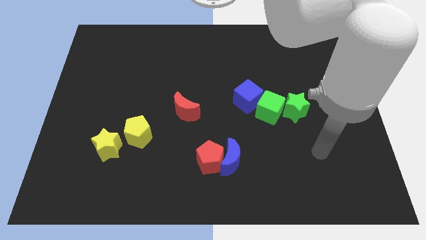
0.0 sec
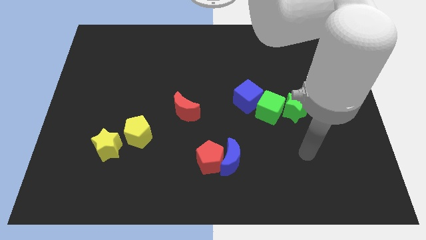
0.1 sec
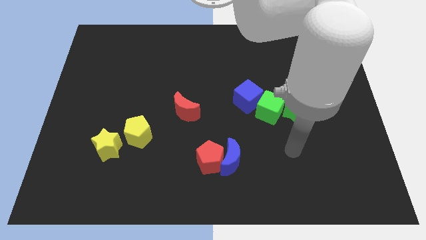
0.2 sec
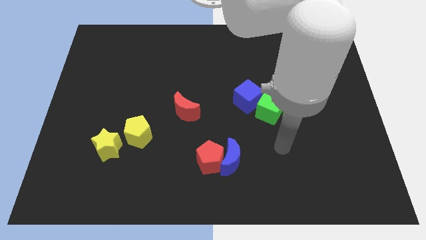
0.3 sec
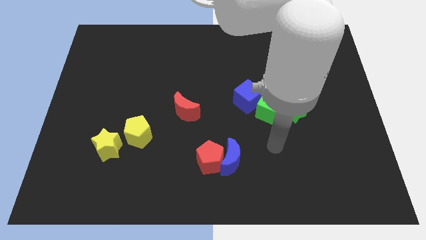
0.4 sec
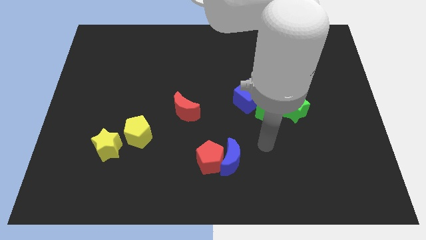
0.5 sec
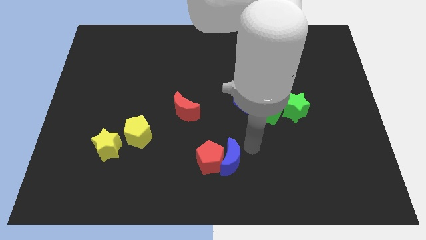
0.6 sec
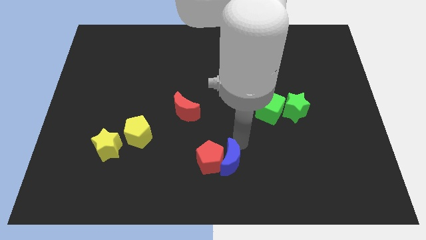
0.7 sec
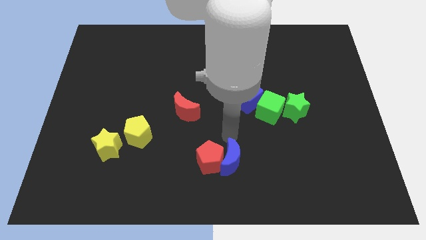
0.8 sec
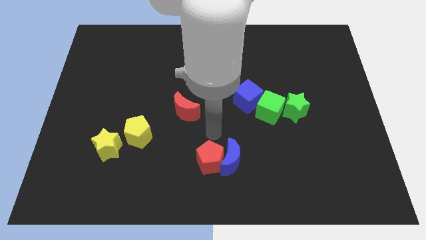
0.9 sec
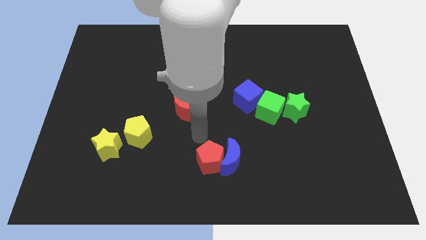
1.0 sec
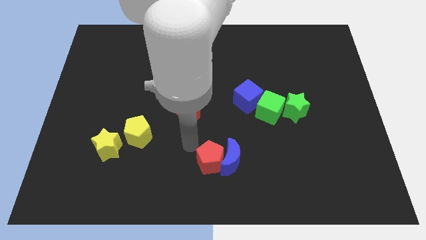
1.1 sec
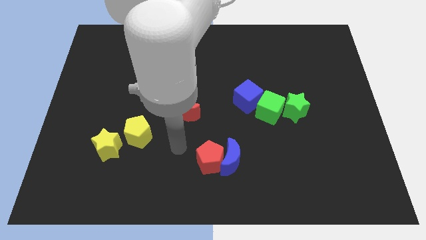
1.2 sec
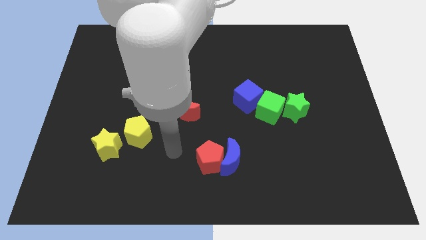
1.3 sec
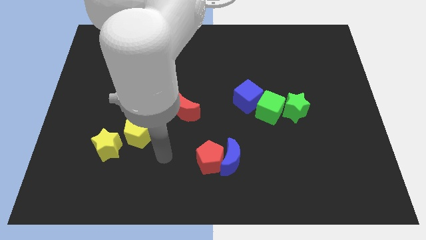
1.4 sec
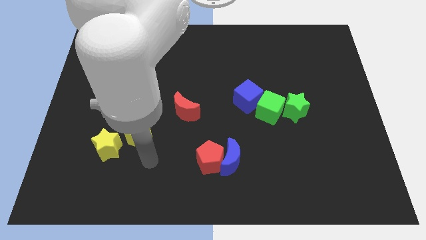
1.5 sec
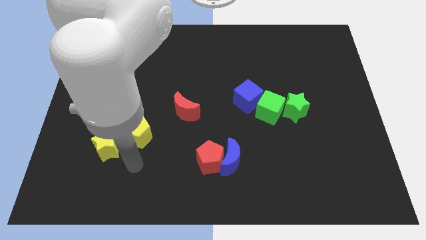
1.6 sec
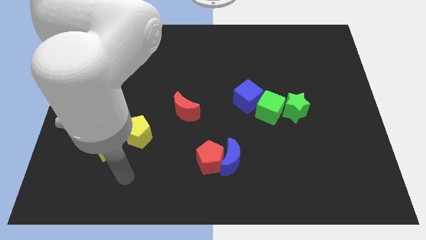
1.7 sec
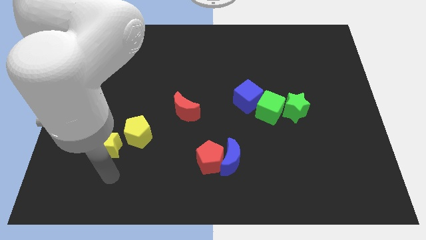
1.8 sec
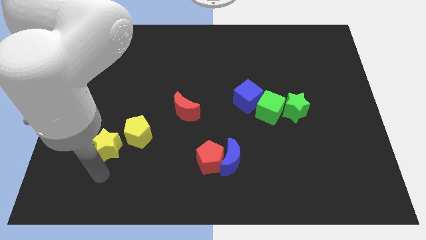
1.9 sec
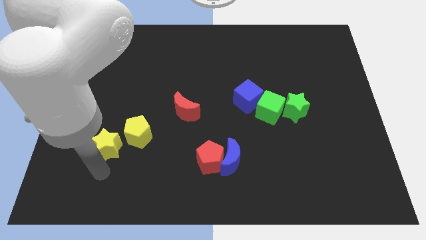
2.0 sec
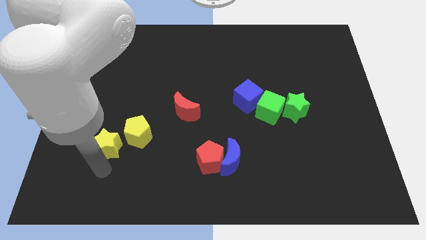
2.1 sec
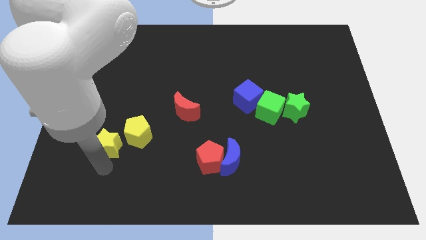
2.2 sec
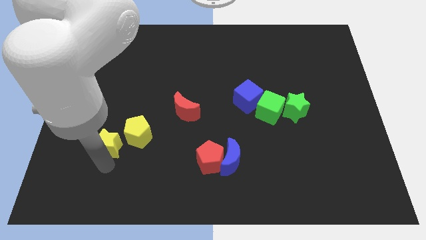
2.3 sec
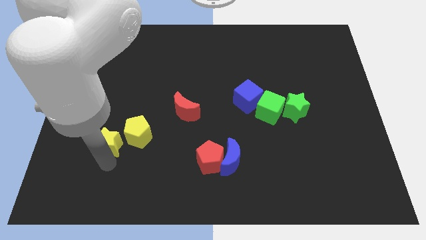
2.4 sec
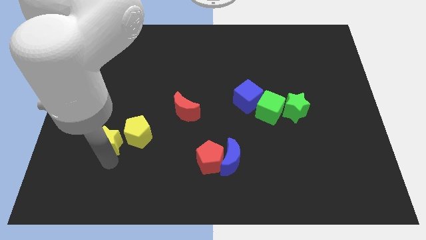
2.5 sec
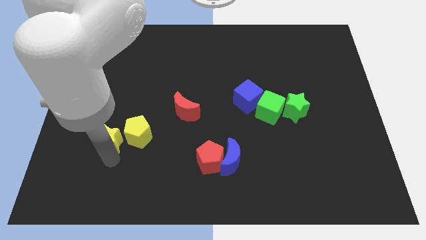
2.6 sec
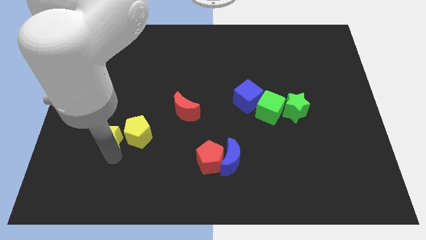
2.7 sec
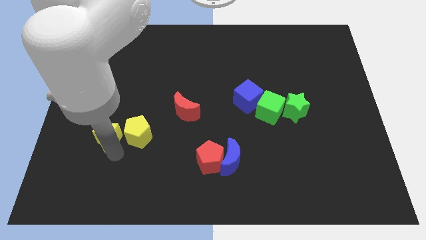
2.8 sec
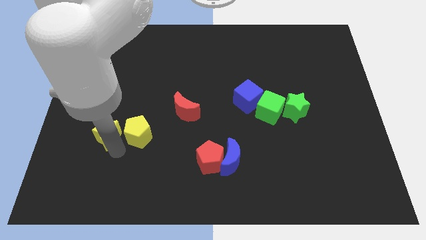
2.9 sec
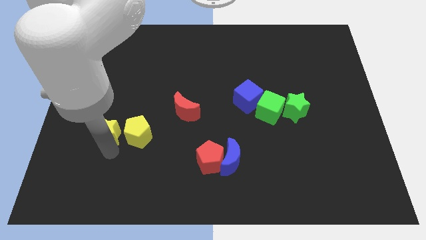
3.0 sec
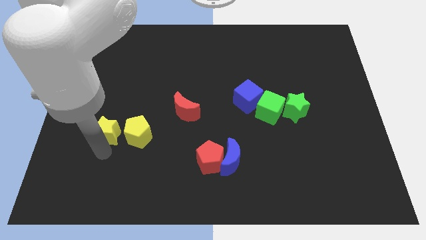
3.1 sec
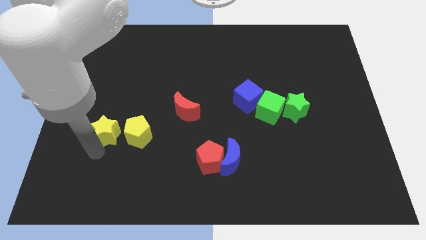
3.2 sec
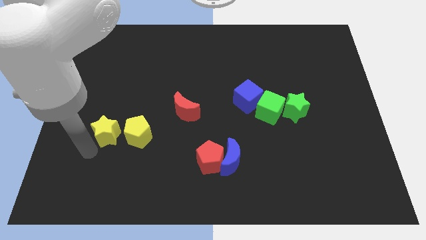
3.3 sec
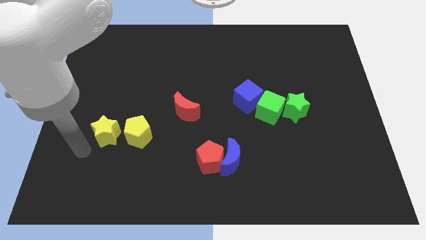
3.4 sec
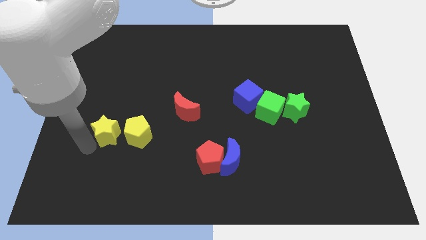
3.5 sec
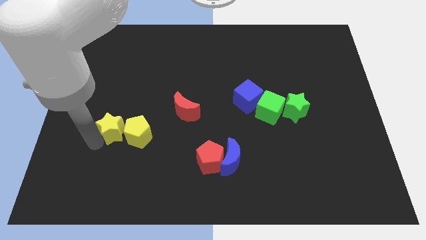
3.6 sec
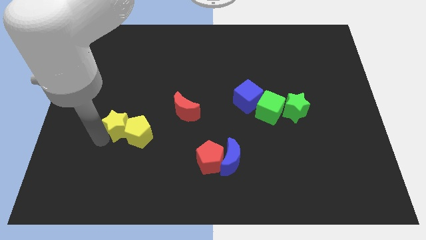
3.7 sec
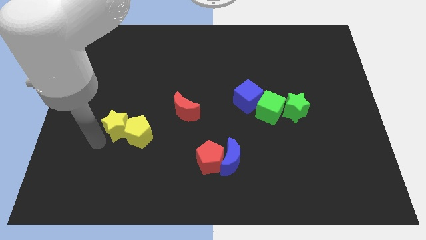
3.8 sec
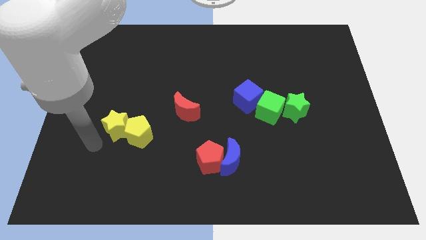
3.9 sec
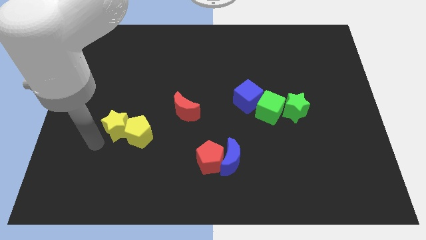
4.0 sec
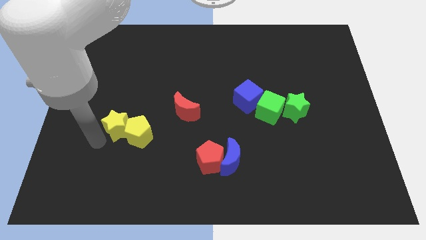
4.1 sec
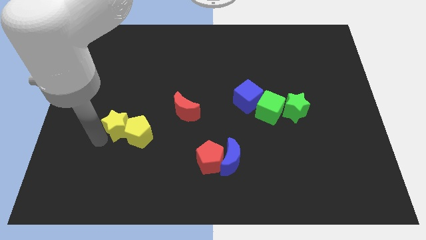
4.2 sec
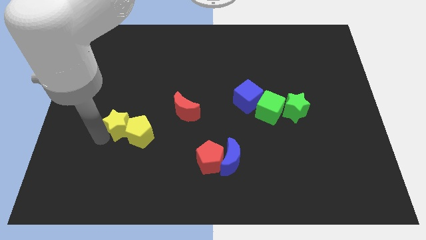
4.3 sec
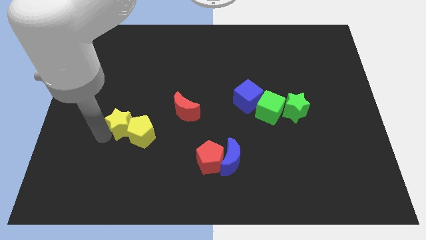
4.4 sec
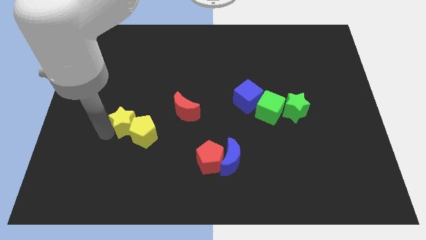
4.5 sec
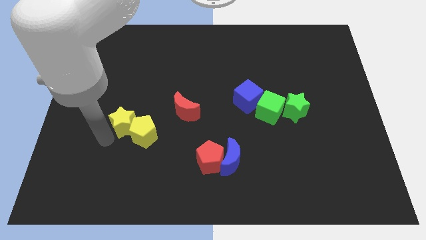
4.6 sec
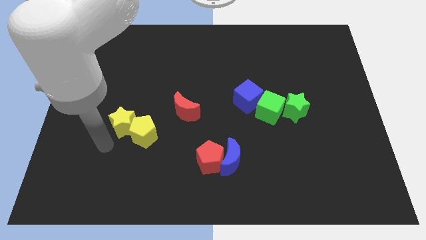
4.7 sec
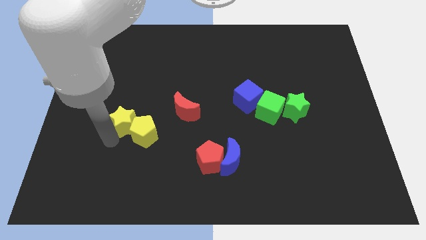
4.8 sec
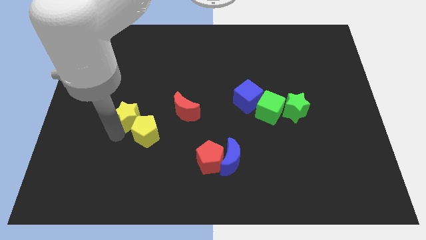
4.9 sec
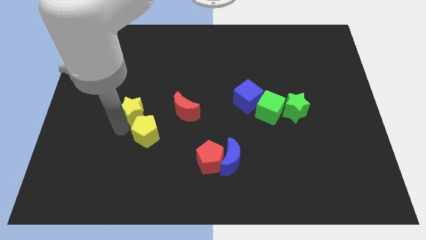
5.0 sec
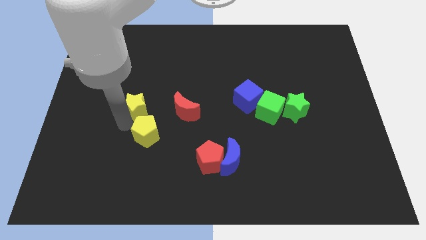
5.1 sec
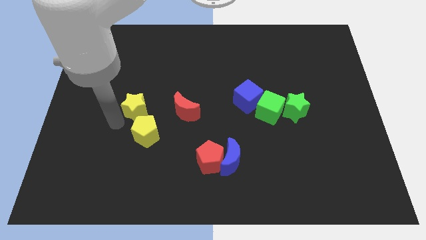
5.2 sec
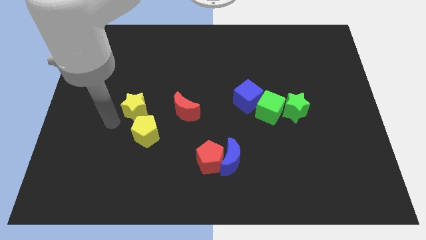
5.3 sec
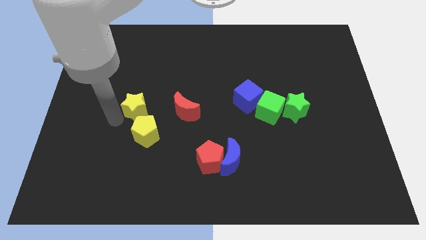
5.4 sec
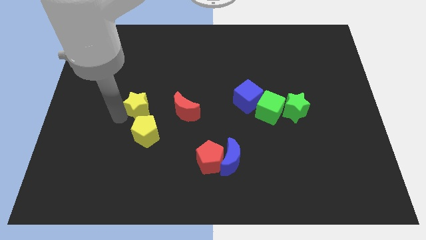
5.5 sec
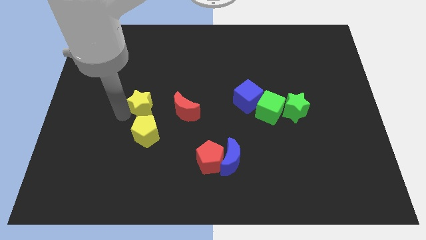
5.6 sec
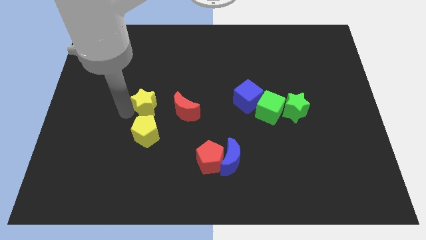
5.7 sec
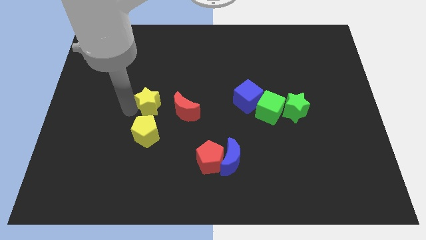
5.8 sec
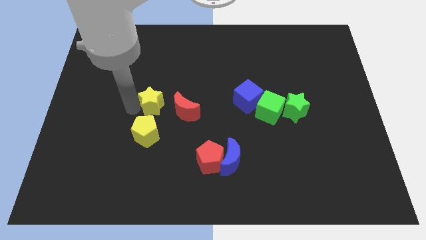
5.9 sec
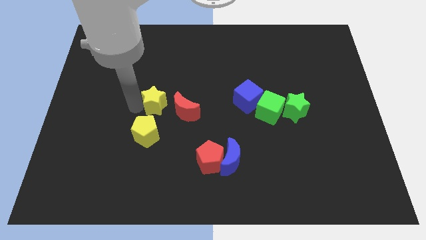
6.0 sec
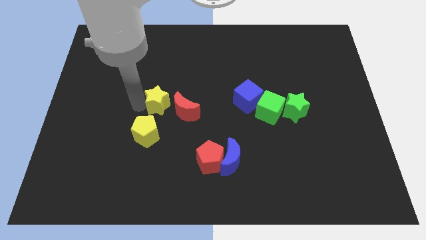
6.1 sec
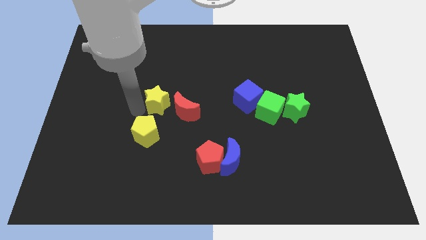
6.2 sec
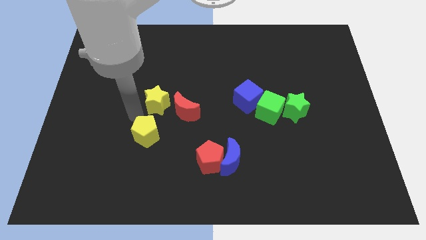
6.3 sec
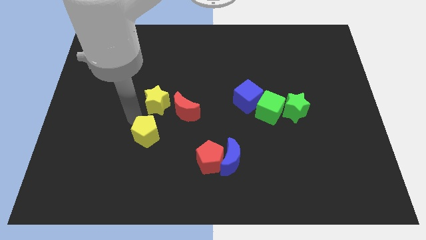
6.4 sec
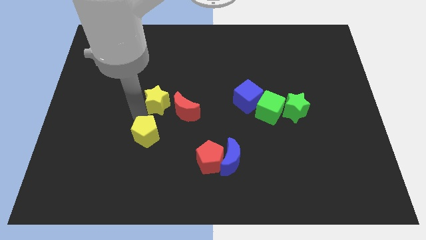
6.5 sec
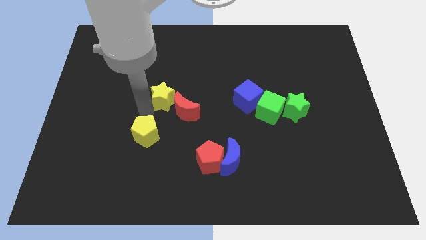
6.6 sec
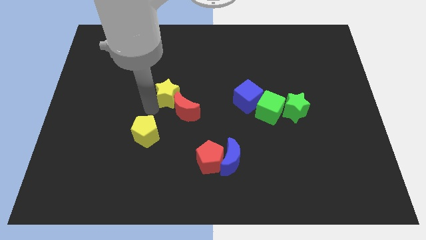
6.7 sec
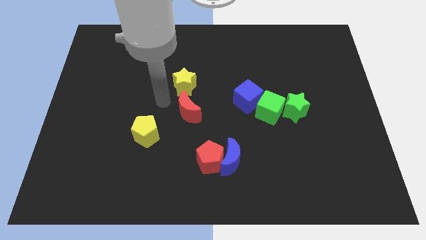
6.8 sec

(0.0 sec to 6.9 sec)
slide the yellow star upwards and then right

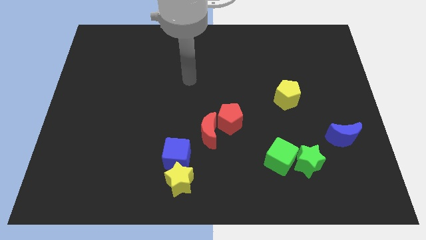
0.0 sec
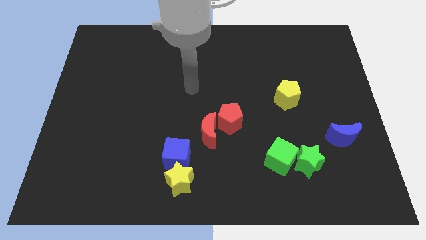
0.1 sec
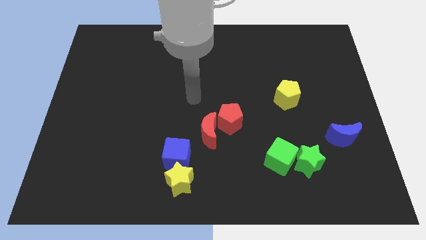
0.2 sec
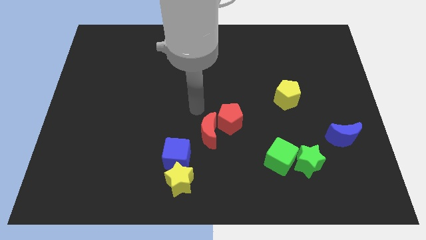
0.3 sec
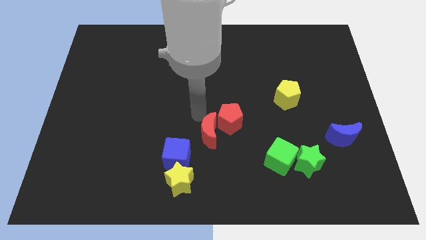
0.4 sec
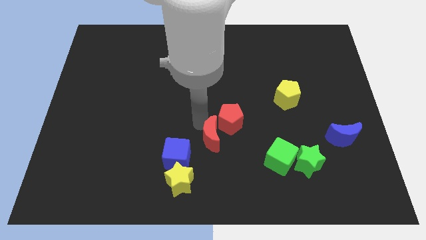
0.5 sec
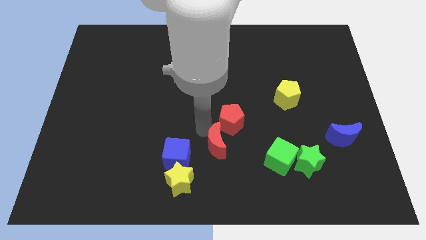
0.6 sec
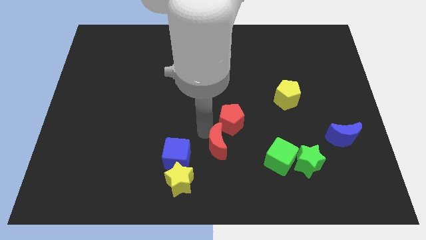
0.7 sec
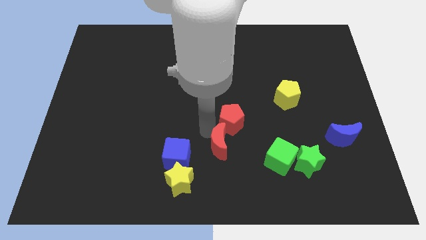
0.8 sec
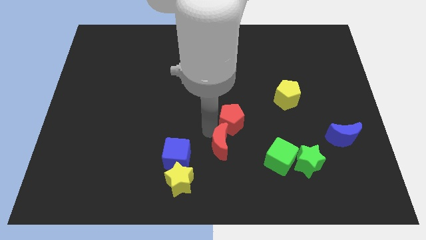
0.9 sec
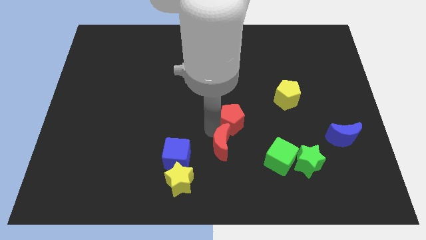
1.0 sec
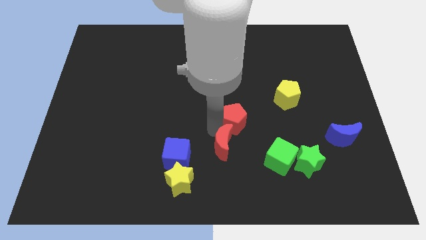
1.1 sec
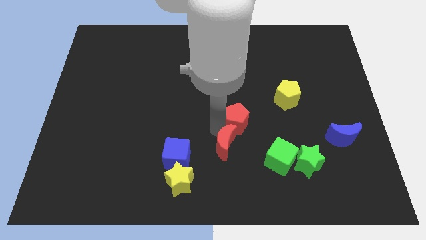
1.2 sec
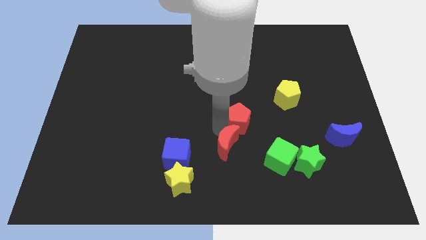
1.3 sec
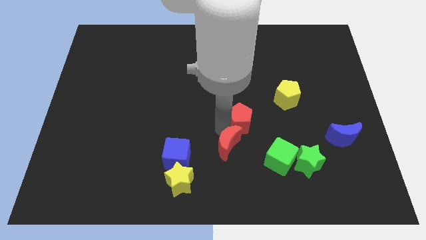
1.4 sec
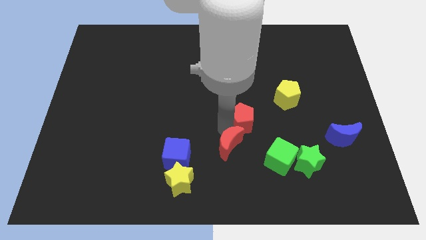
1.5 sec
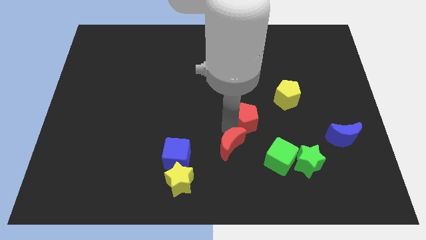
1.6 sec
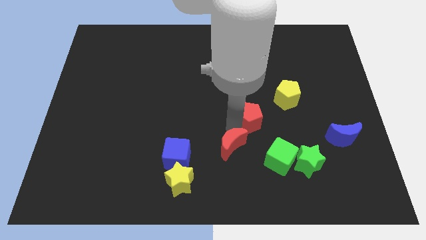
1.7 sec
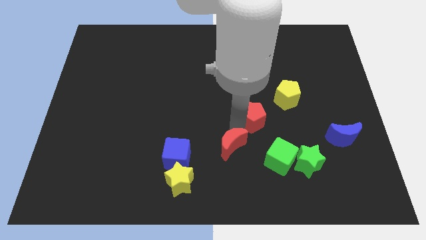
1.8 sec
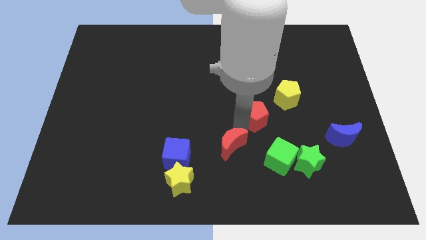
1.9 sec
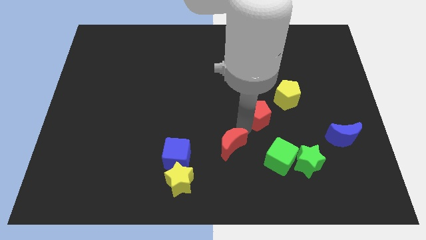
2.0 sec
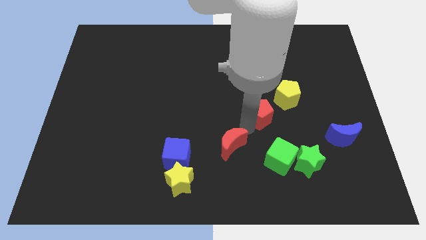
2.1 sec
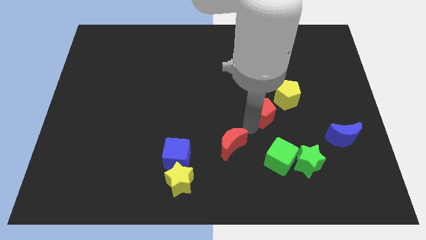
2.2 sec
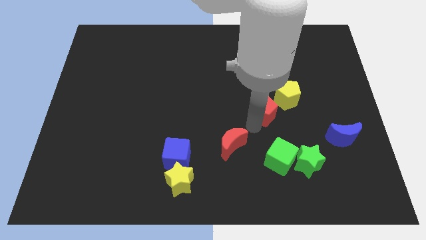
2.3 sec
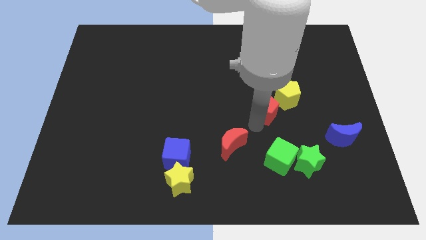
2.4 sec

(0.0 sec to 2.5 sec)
slide the red pentagon a bit up and to the right
